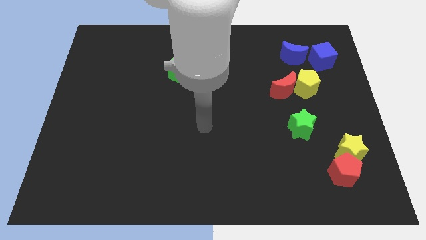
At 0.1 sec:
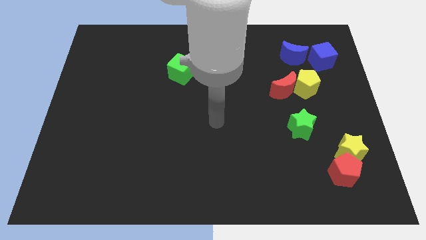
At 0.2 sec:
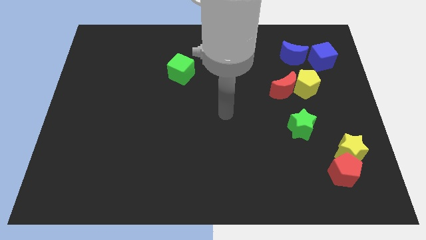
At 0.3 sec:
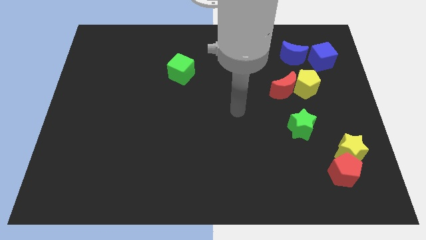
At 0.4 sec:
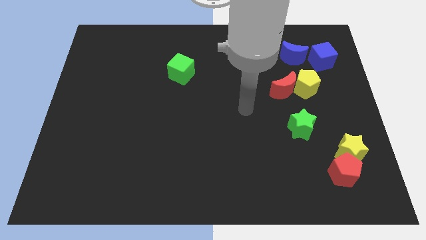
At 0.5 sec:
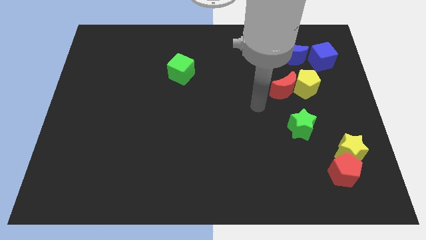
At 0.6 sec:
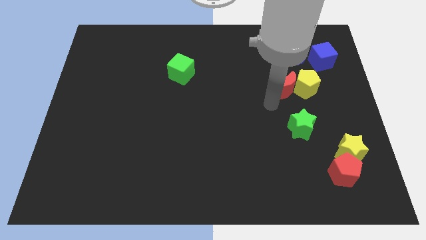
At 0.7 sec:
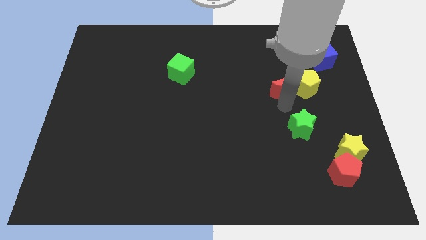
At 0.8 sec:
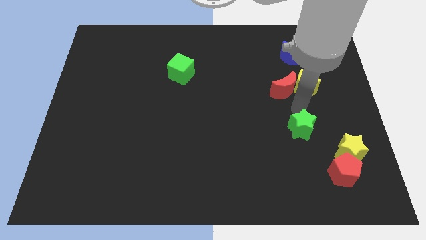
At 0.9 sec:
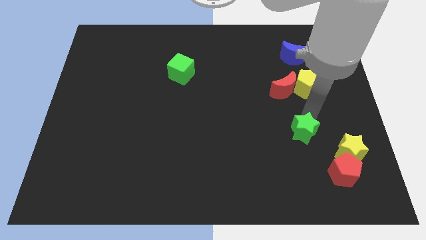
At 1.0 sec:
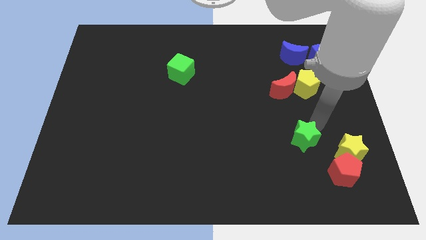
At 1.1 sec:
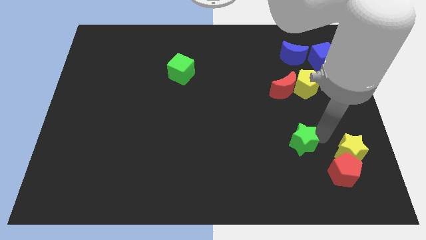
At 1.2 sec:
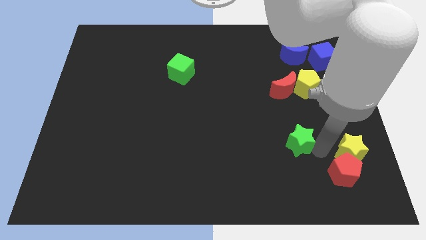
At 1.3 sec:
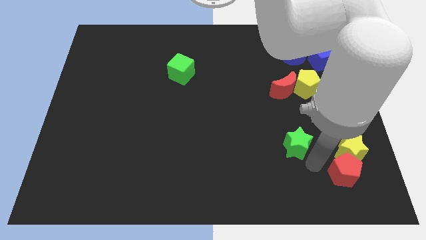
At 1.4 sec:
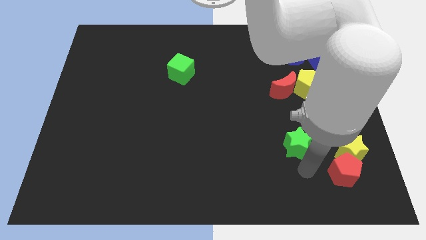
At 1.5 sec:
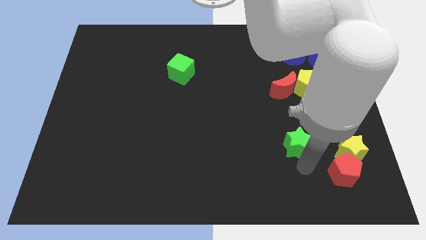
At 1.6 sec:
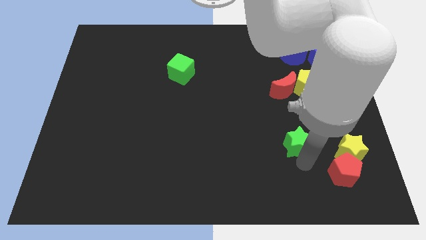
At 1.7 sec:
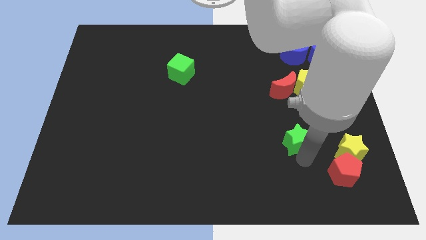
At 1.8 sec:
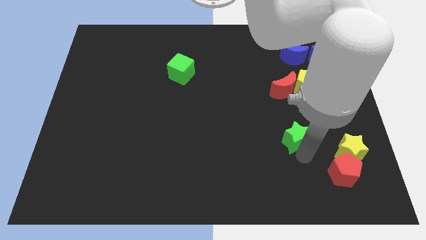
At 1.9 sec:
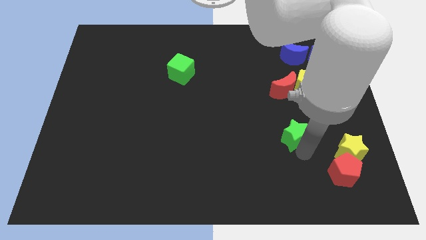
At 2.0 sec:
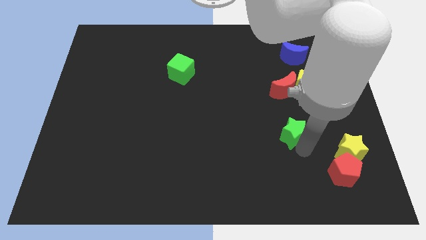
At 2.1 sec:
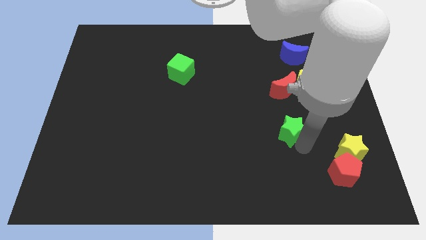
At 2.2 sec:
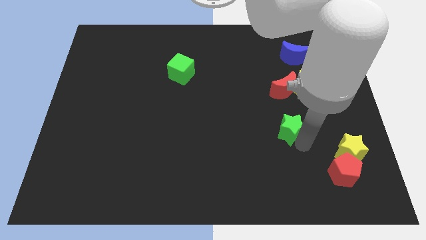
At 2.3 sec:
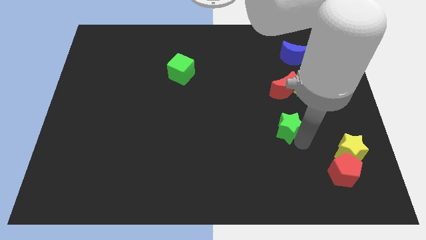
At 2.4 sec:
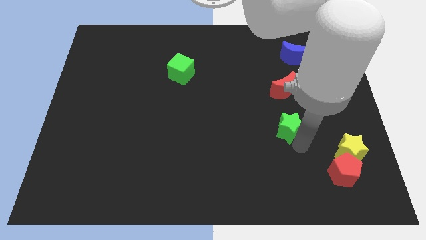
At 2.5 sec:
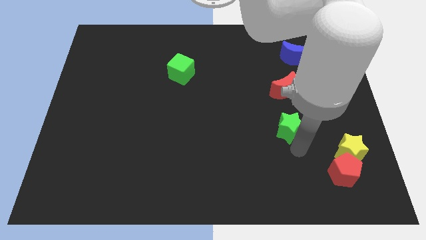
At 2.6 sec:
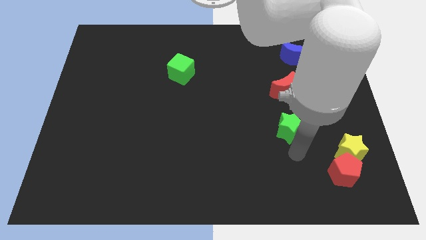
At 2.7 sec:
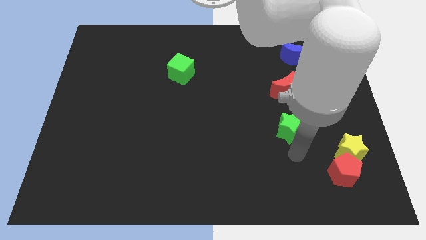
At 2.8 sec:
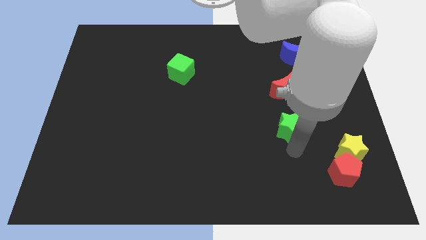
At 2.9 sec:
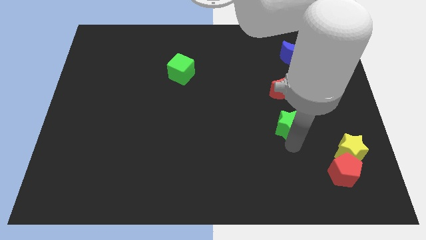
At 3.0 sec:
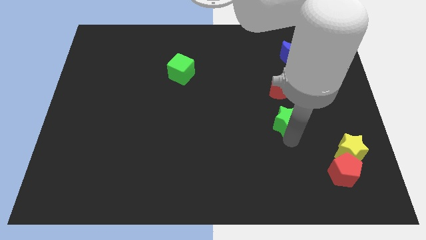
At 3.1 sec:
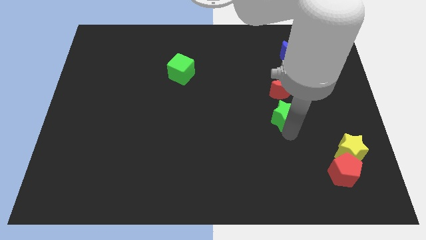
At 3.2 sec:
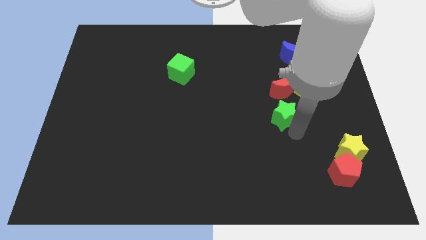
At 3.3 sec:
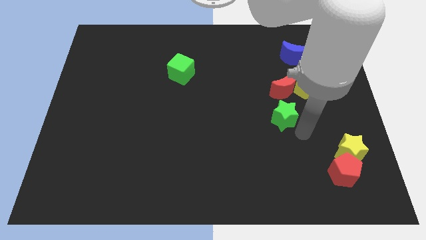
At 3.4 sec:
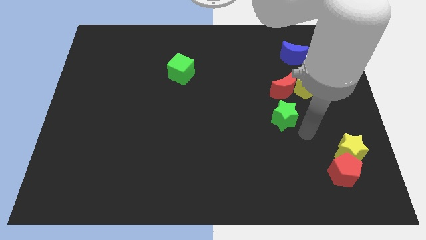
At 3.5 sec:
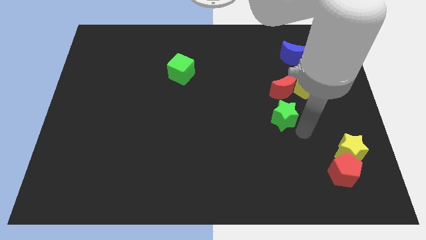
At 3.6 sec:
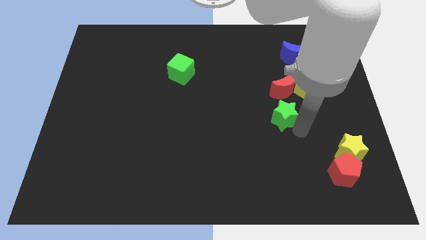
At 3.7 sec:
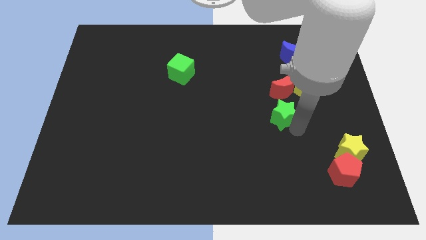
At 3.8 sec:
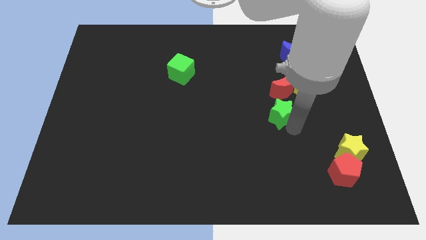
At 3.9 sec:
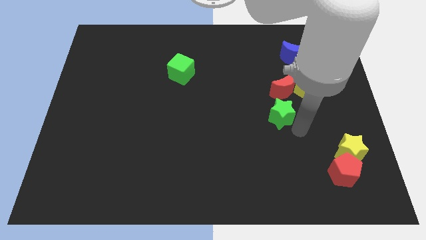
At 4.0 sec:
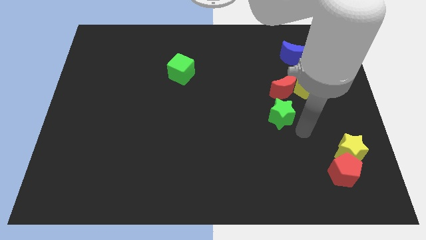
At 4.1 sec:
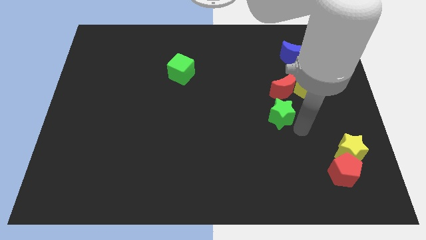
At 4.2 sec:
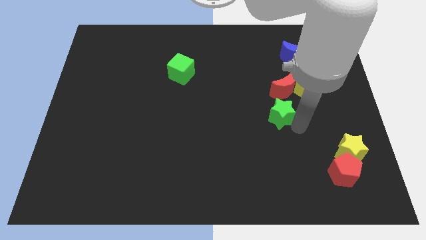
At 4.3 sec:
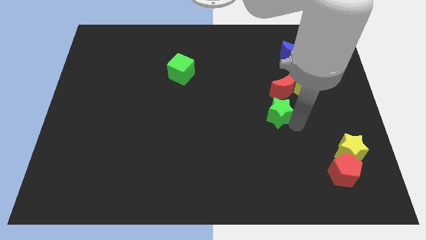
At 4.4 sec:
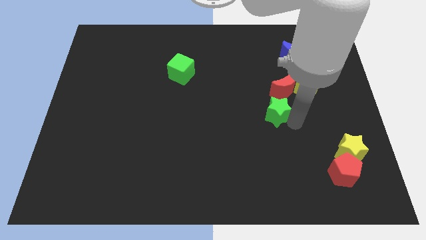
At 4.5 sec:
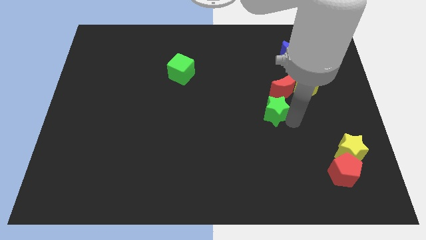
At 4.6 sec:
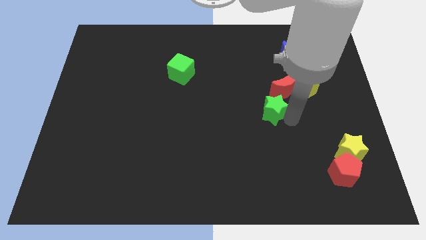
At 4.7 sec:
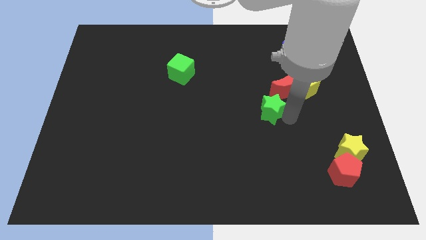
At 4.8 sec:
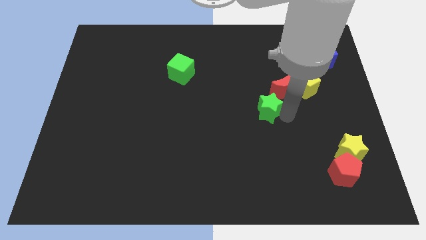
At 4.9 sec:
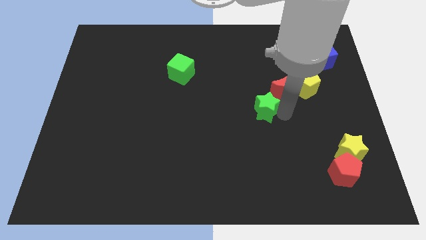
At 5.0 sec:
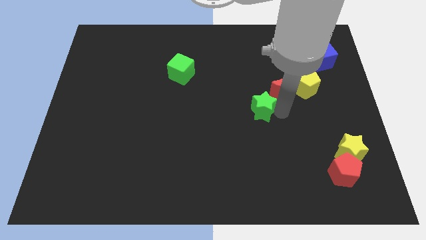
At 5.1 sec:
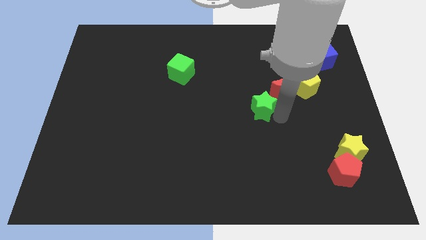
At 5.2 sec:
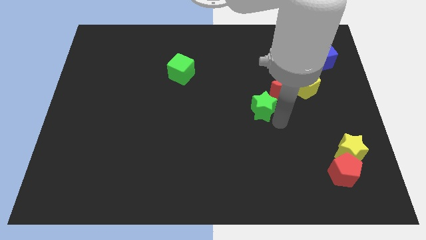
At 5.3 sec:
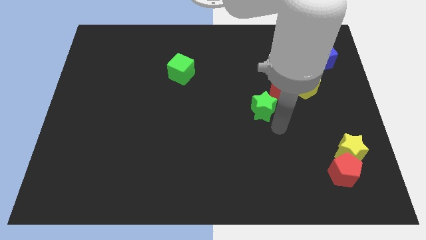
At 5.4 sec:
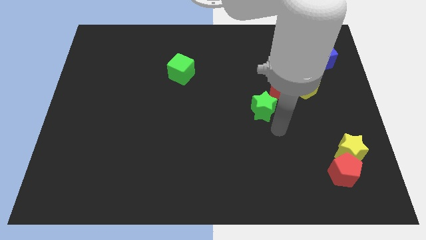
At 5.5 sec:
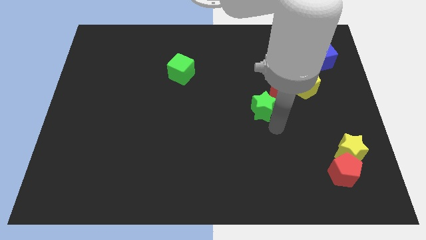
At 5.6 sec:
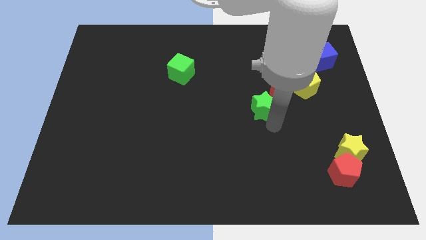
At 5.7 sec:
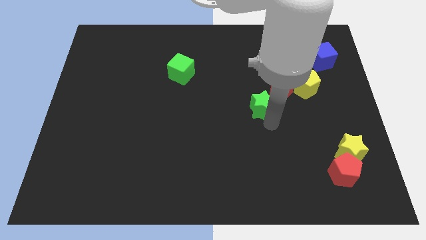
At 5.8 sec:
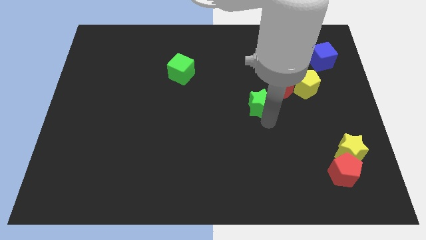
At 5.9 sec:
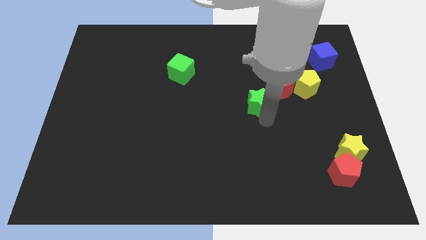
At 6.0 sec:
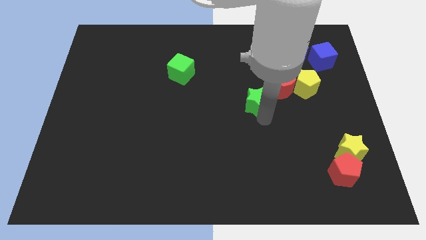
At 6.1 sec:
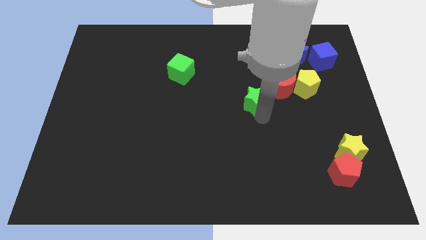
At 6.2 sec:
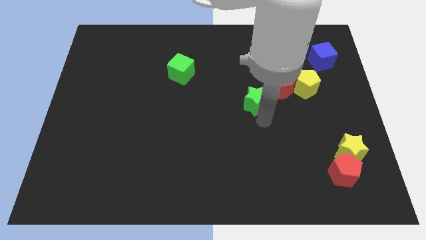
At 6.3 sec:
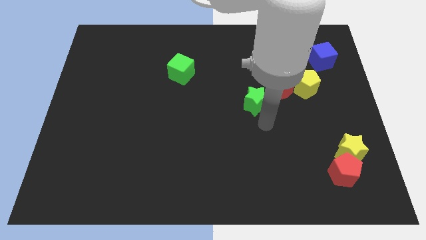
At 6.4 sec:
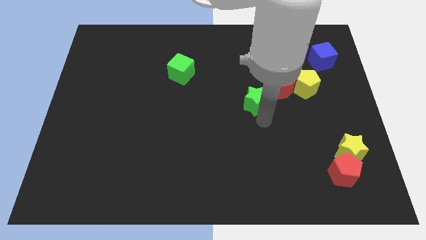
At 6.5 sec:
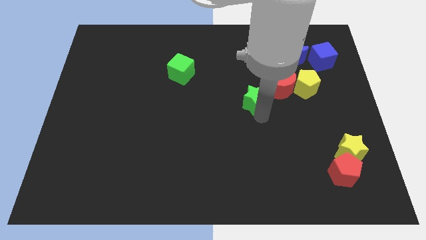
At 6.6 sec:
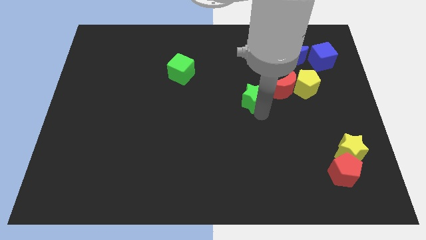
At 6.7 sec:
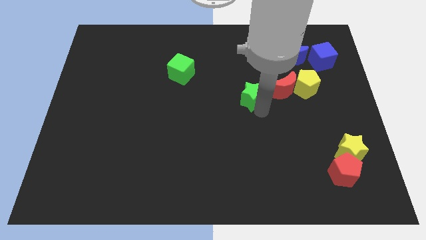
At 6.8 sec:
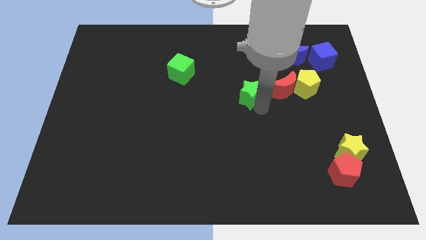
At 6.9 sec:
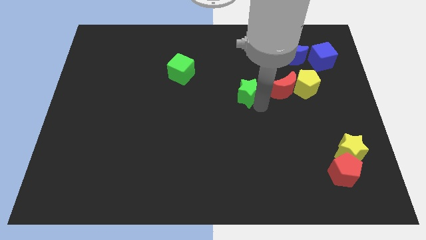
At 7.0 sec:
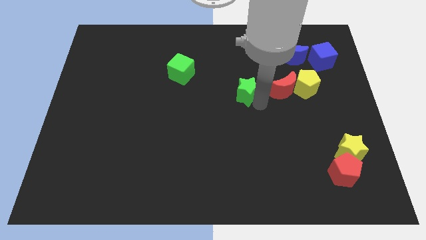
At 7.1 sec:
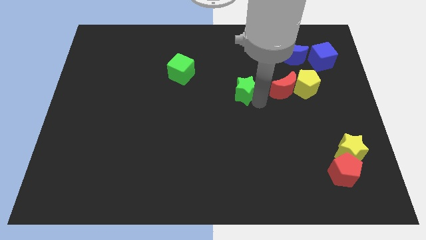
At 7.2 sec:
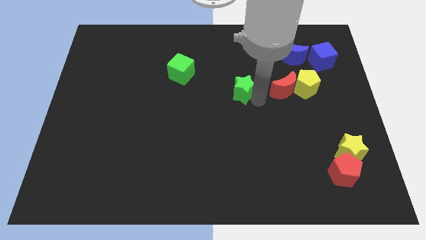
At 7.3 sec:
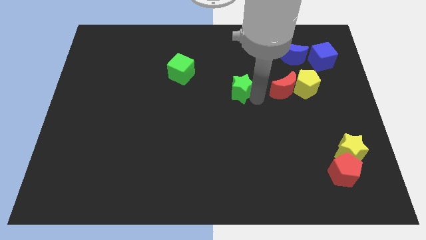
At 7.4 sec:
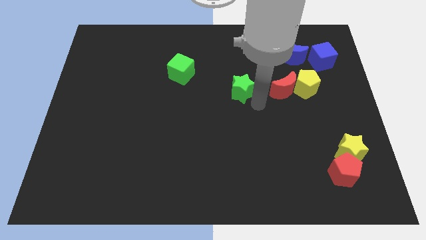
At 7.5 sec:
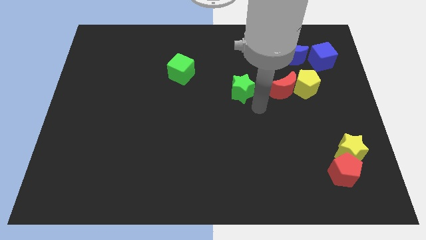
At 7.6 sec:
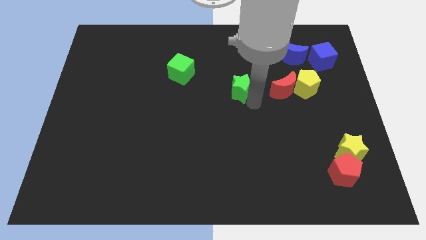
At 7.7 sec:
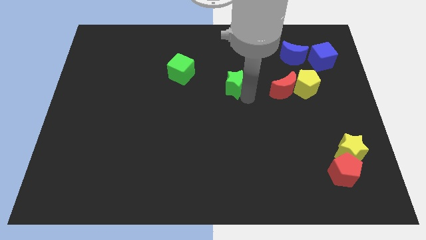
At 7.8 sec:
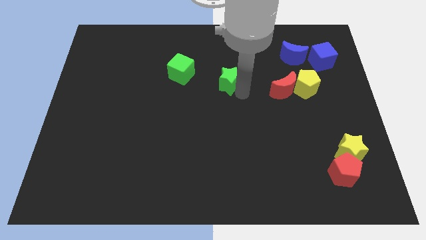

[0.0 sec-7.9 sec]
slide the green star up and to the left diagonally
